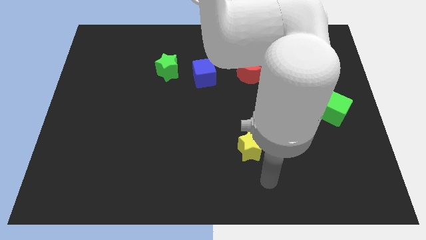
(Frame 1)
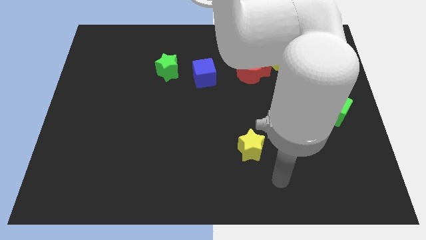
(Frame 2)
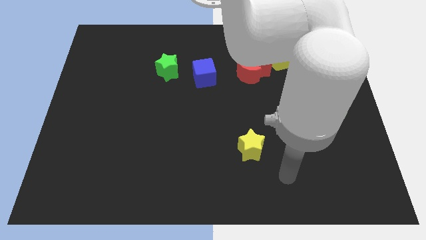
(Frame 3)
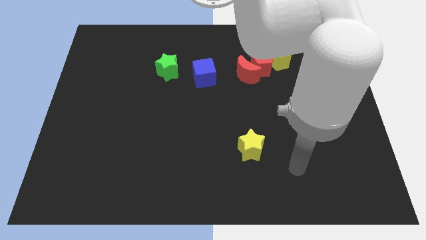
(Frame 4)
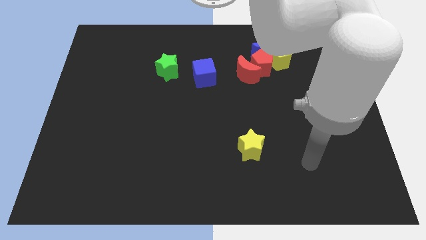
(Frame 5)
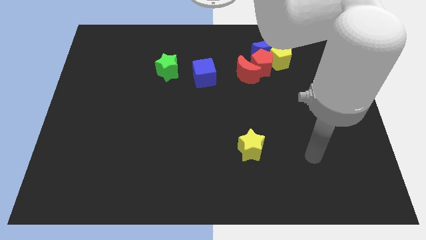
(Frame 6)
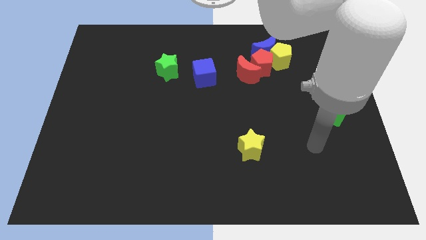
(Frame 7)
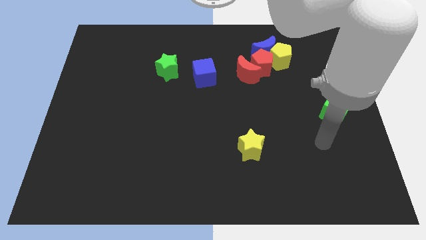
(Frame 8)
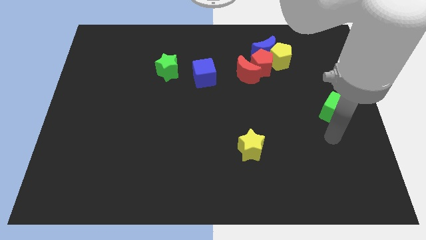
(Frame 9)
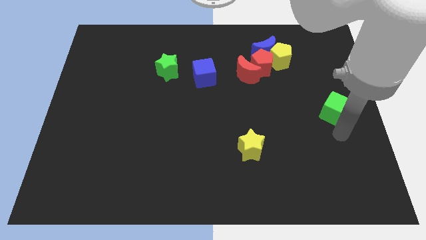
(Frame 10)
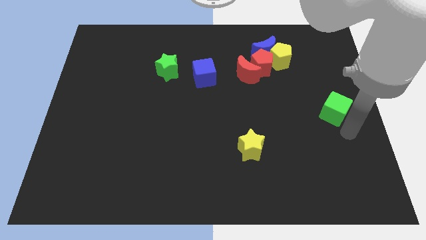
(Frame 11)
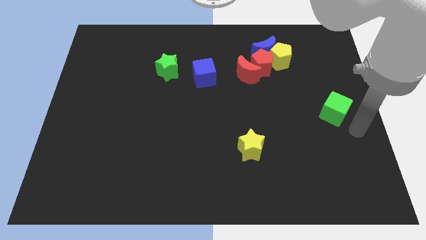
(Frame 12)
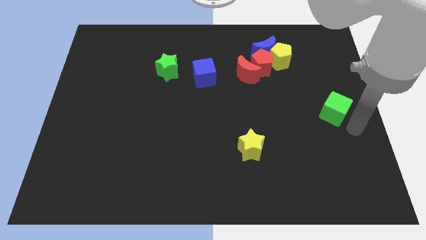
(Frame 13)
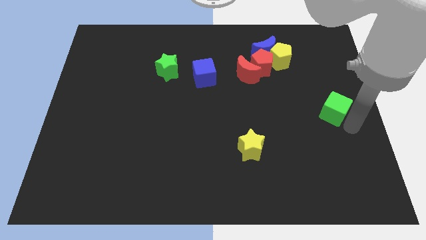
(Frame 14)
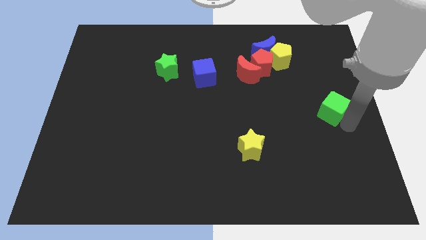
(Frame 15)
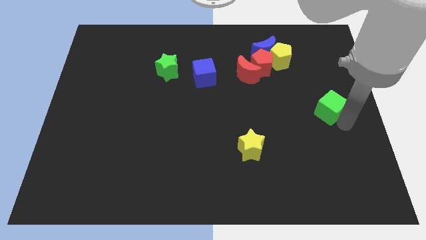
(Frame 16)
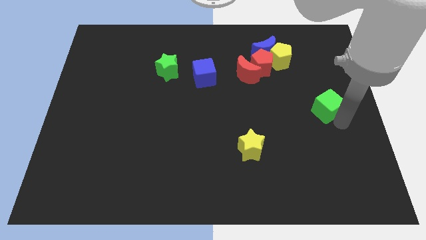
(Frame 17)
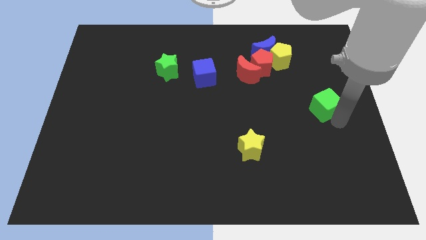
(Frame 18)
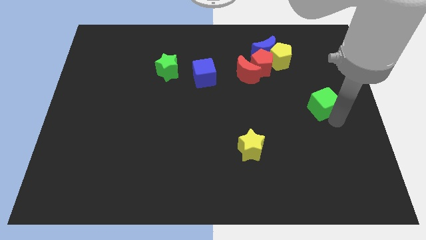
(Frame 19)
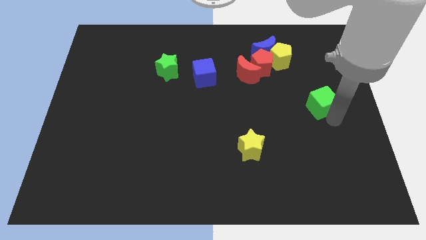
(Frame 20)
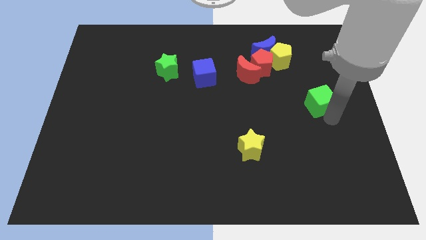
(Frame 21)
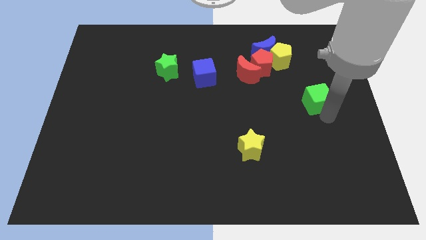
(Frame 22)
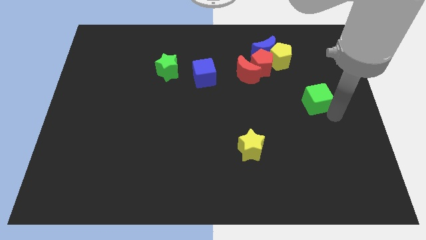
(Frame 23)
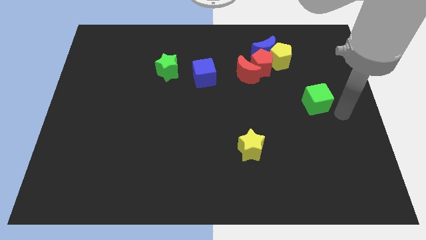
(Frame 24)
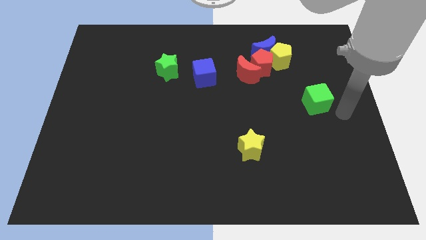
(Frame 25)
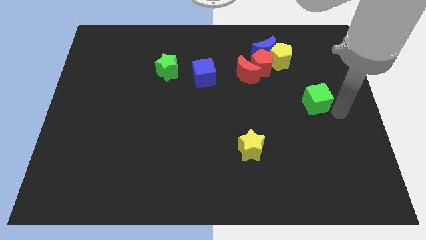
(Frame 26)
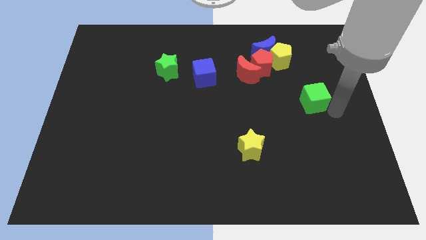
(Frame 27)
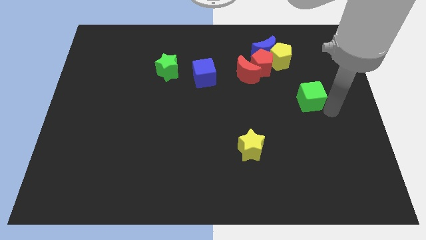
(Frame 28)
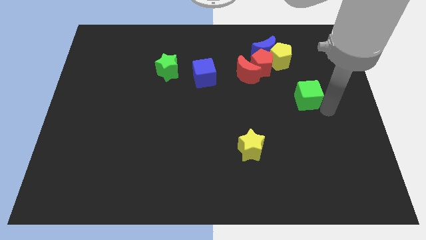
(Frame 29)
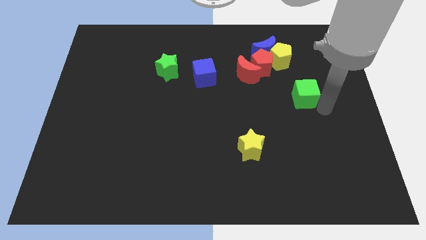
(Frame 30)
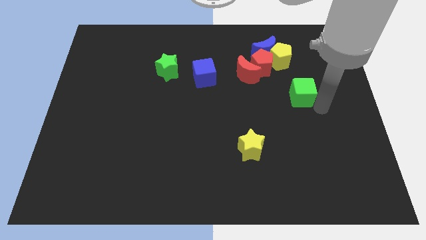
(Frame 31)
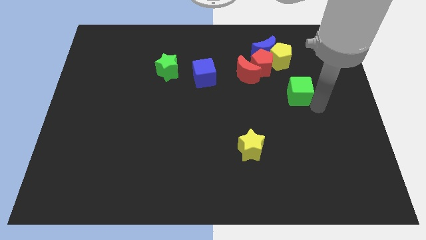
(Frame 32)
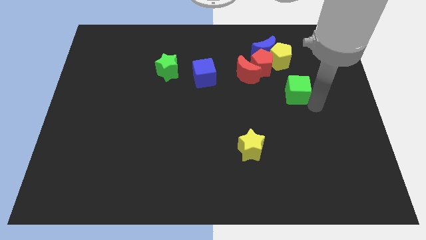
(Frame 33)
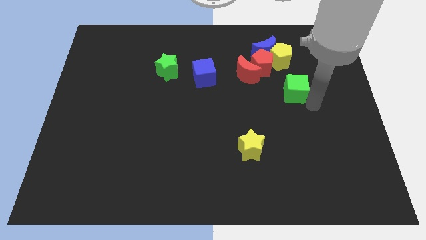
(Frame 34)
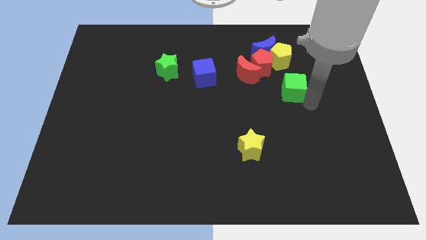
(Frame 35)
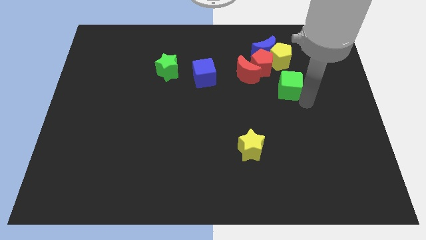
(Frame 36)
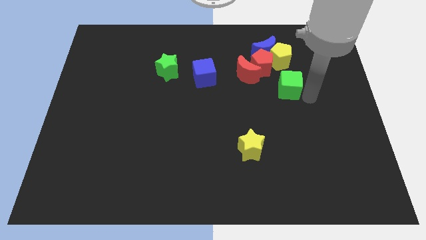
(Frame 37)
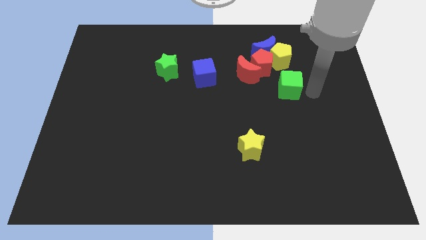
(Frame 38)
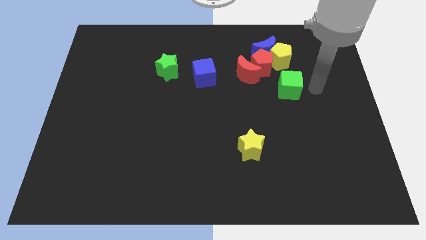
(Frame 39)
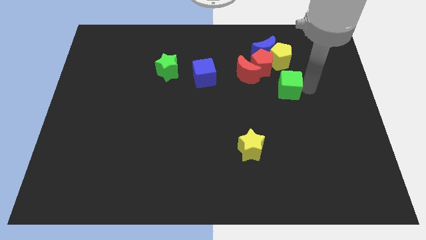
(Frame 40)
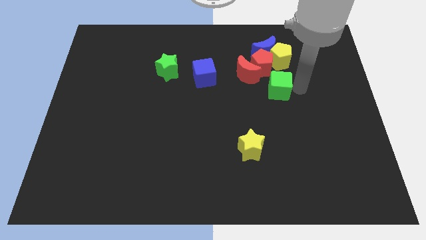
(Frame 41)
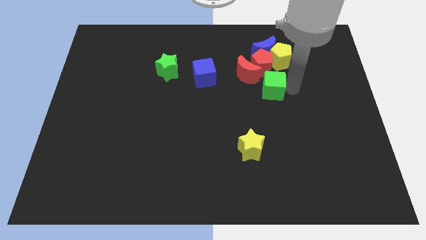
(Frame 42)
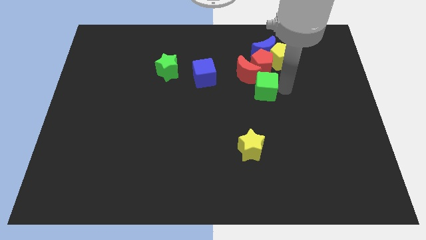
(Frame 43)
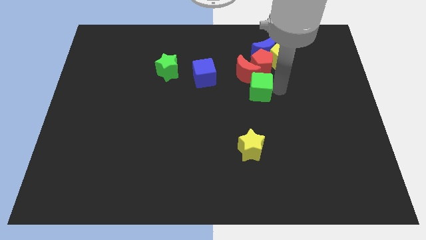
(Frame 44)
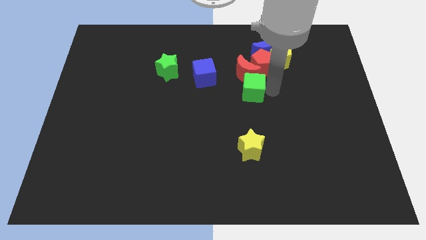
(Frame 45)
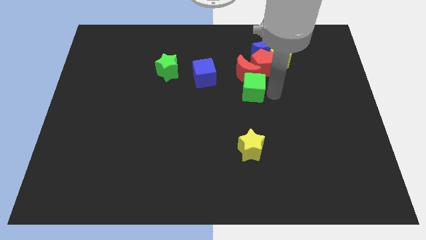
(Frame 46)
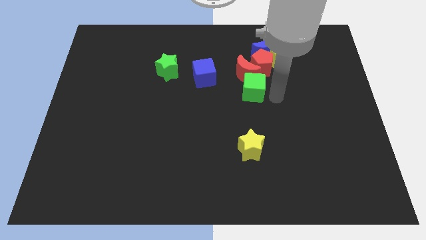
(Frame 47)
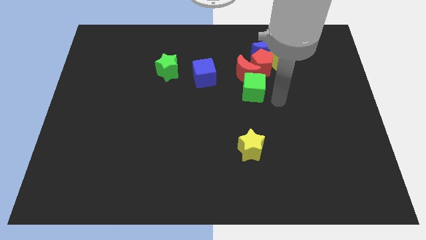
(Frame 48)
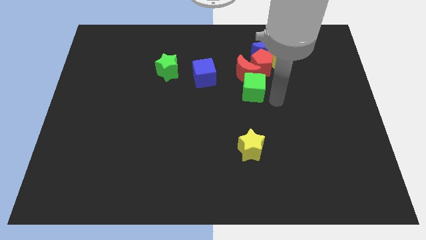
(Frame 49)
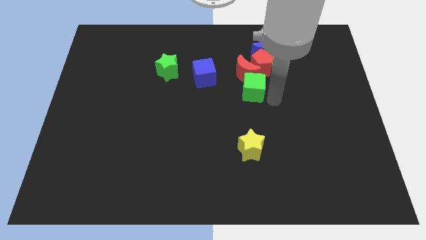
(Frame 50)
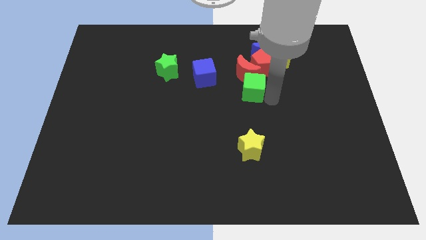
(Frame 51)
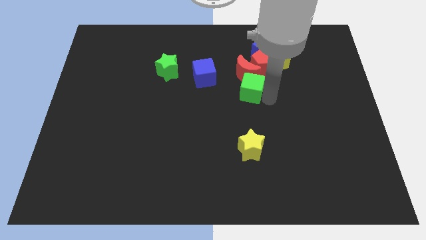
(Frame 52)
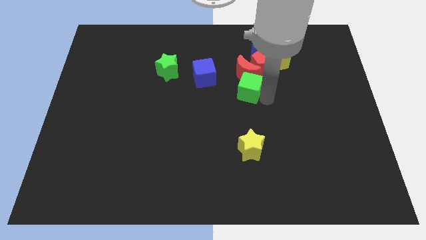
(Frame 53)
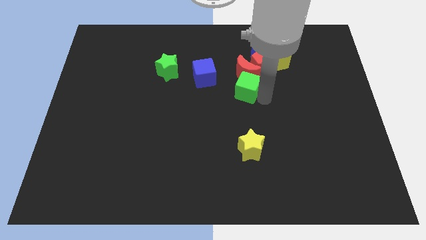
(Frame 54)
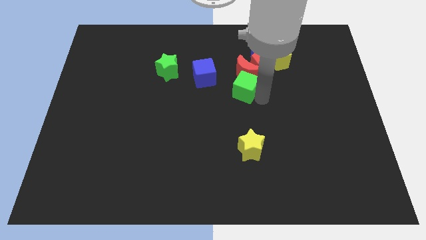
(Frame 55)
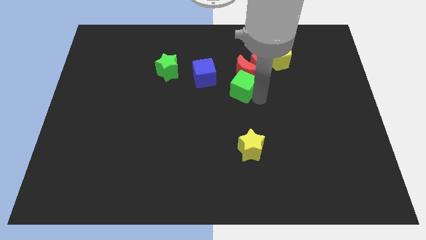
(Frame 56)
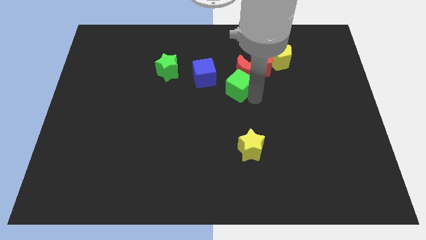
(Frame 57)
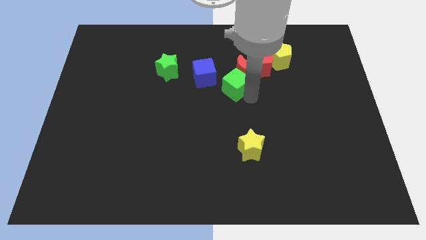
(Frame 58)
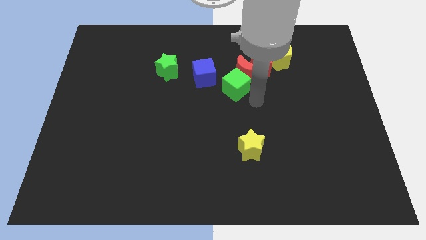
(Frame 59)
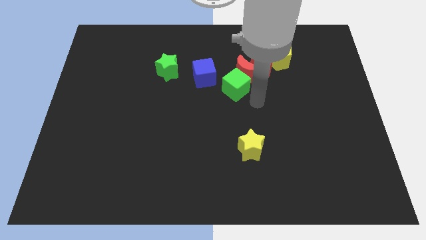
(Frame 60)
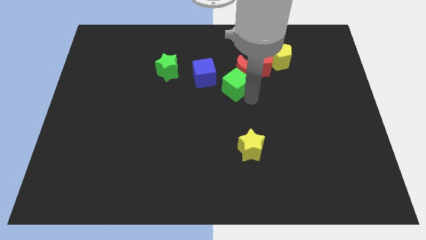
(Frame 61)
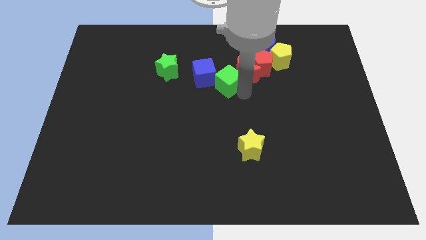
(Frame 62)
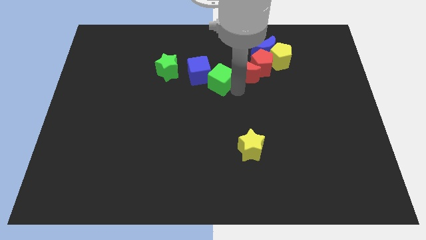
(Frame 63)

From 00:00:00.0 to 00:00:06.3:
slide the green cube right of the green star

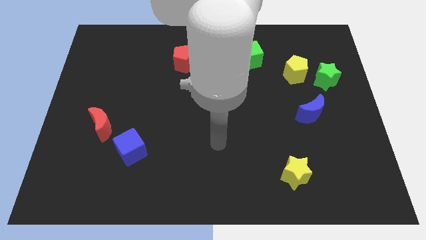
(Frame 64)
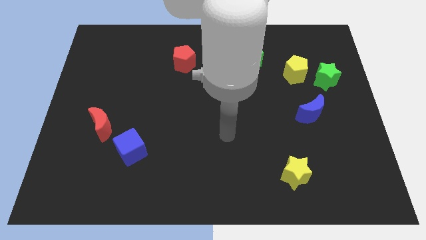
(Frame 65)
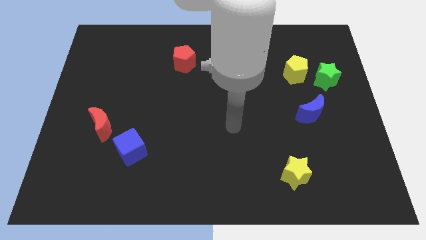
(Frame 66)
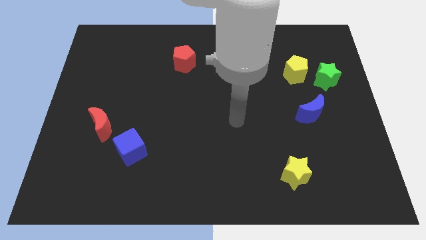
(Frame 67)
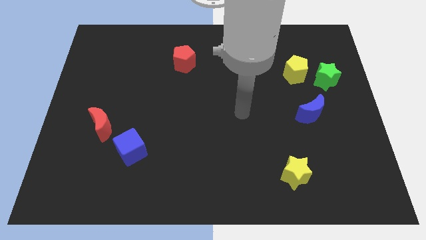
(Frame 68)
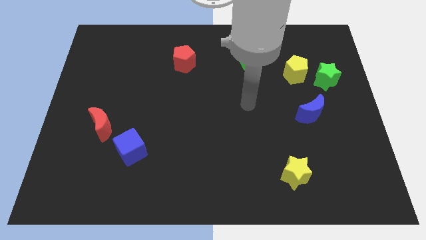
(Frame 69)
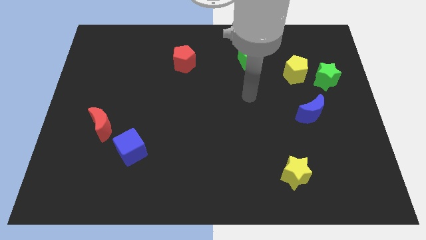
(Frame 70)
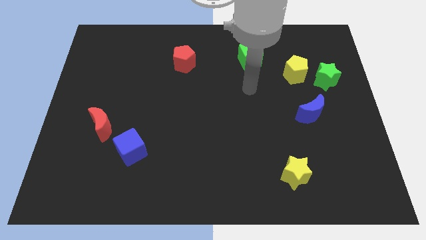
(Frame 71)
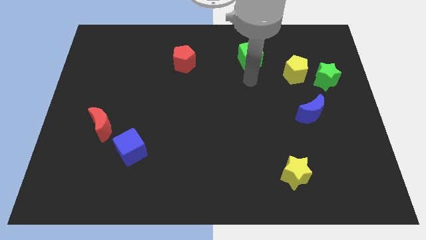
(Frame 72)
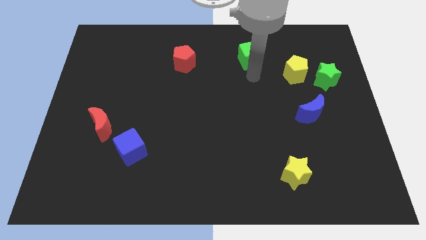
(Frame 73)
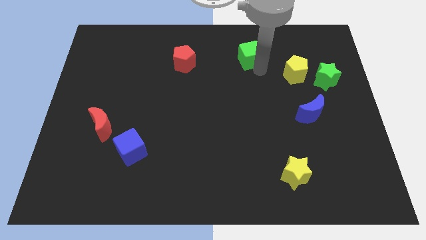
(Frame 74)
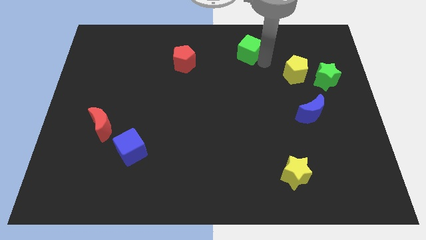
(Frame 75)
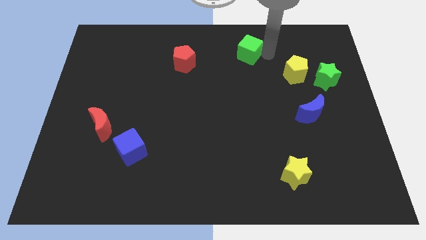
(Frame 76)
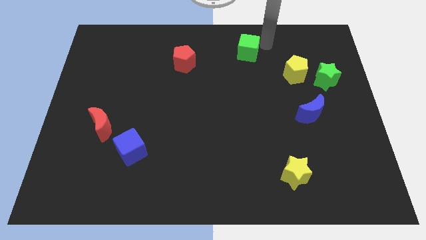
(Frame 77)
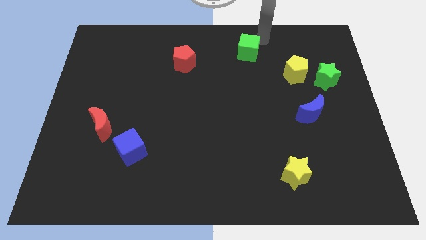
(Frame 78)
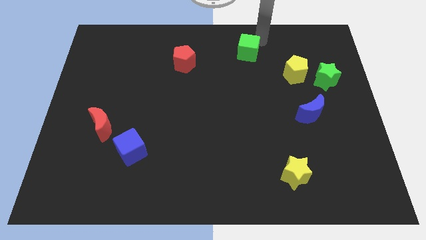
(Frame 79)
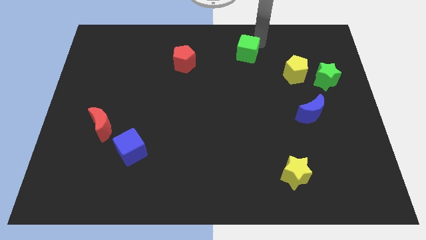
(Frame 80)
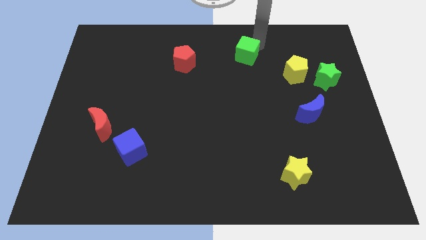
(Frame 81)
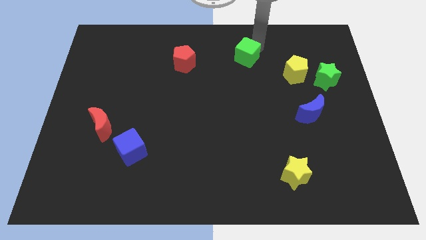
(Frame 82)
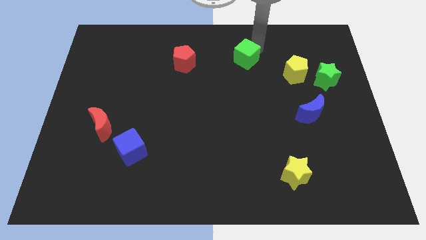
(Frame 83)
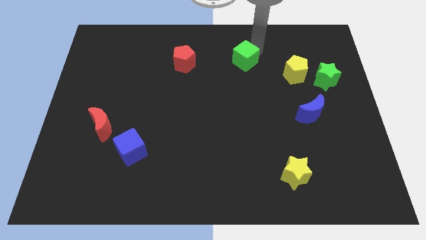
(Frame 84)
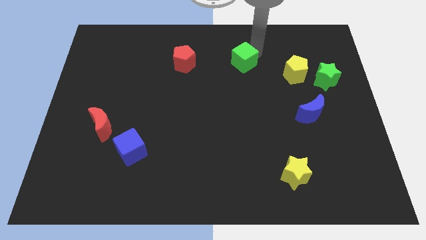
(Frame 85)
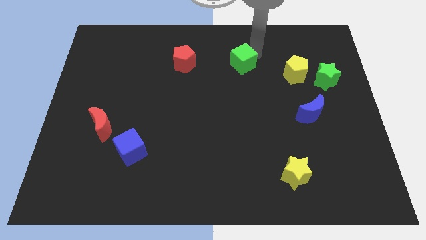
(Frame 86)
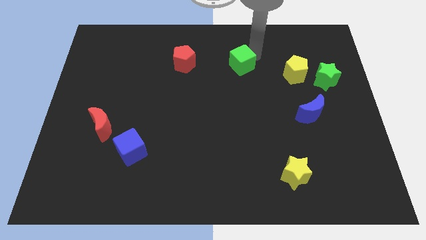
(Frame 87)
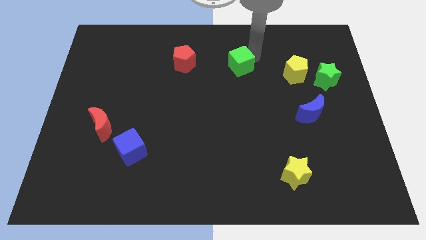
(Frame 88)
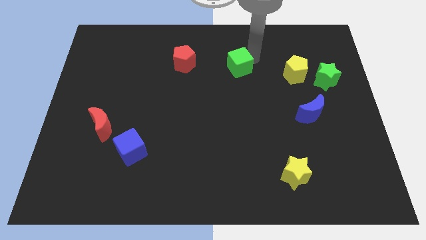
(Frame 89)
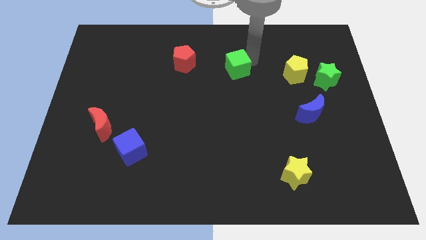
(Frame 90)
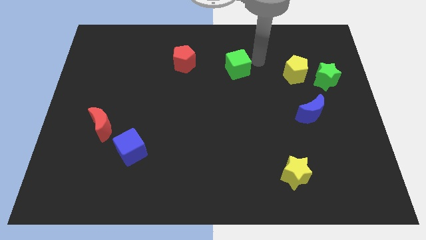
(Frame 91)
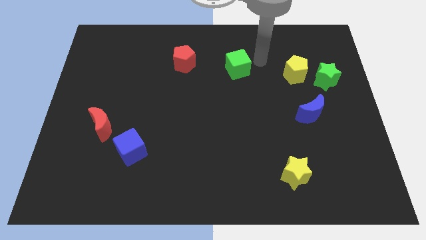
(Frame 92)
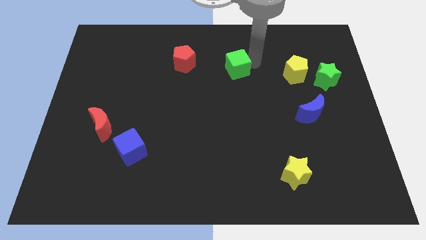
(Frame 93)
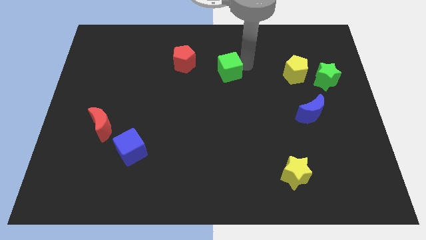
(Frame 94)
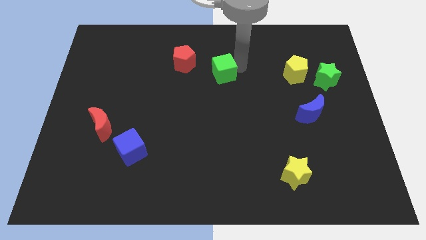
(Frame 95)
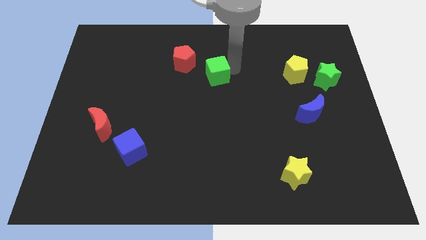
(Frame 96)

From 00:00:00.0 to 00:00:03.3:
put the green cube diagonally down and to the right of the red pentagon
